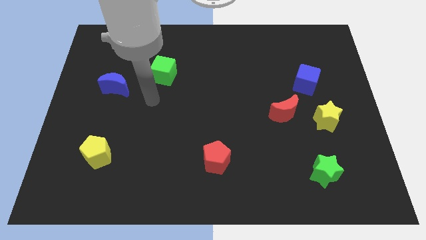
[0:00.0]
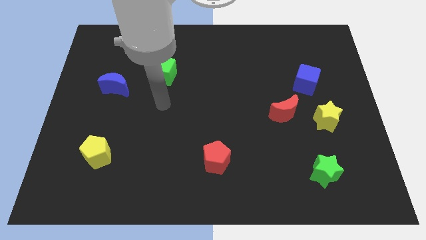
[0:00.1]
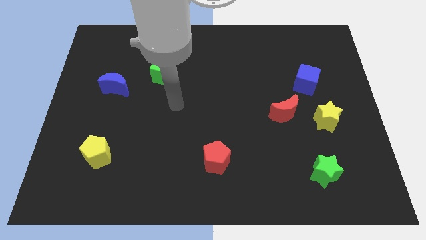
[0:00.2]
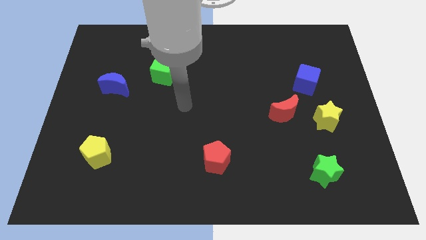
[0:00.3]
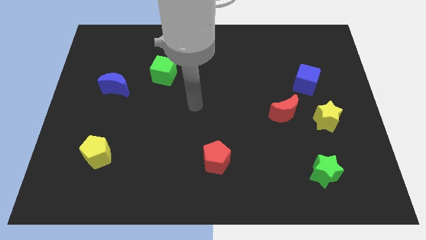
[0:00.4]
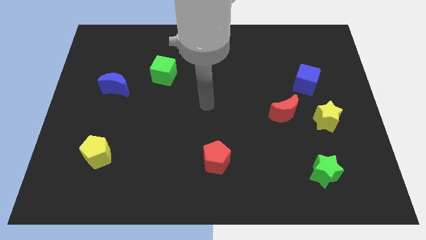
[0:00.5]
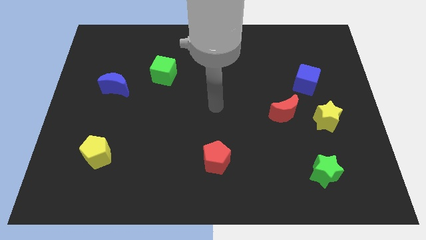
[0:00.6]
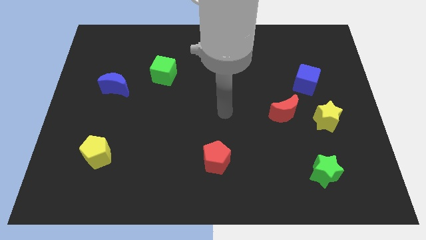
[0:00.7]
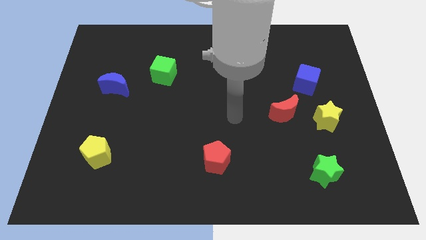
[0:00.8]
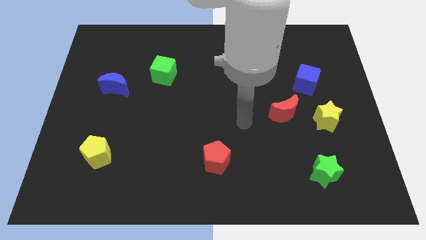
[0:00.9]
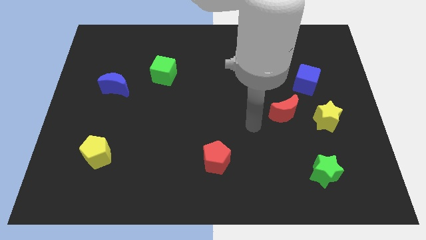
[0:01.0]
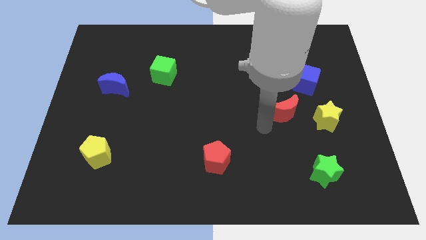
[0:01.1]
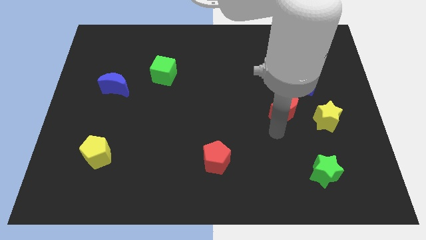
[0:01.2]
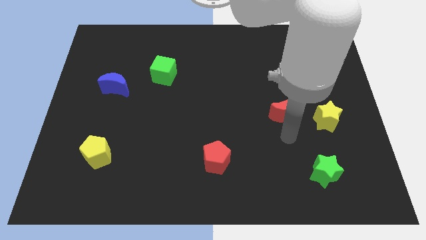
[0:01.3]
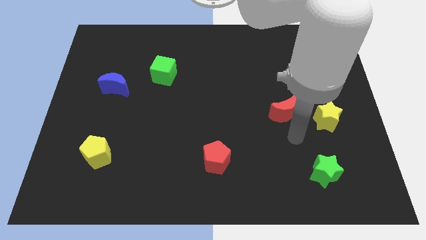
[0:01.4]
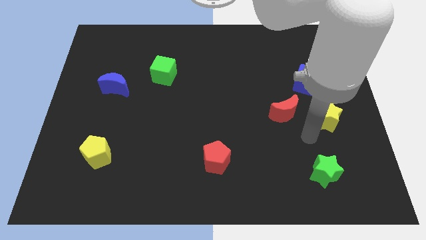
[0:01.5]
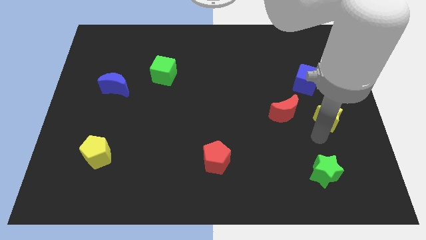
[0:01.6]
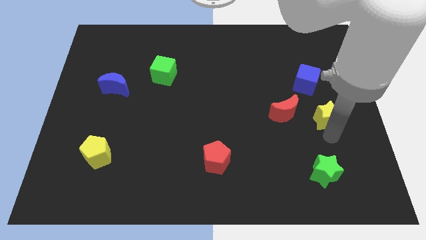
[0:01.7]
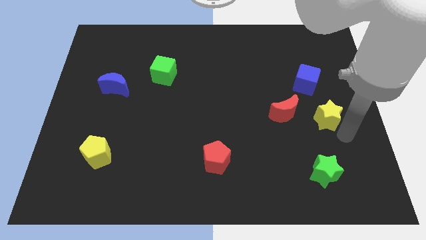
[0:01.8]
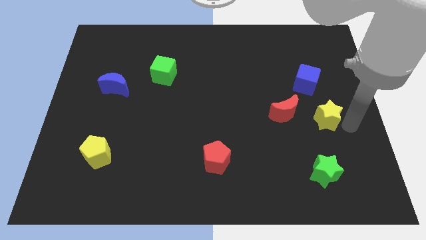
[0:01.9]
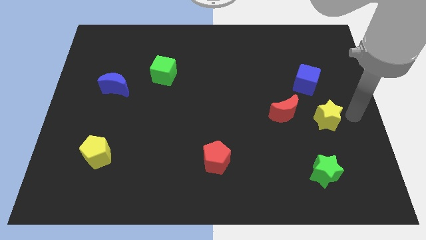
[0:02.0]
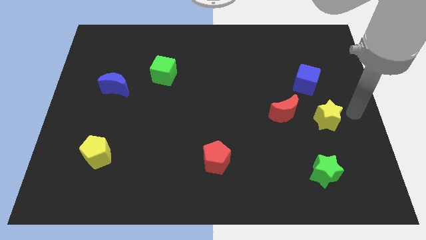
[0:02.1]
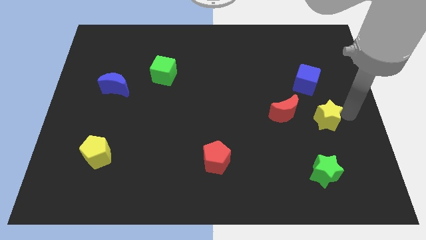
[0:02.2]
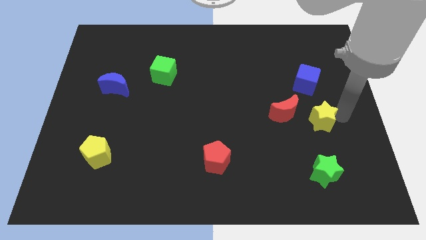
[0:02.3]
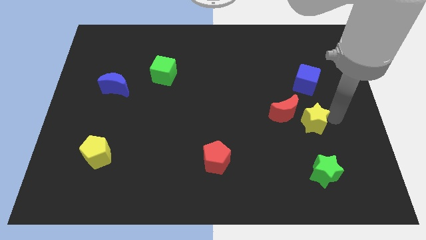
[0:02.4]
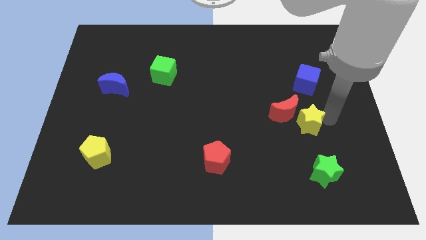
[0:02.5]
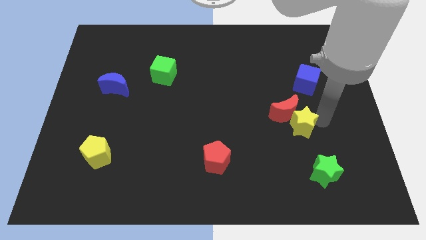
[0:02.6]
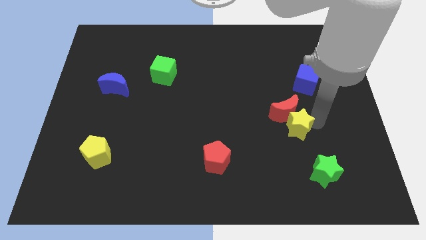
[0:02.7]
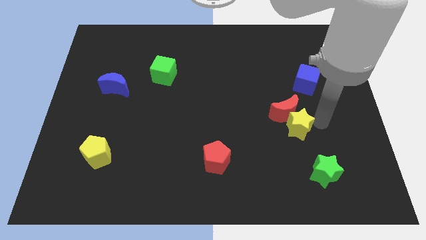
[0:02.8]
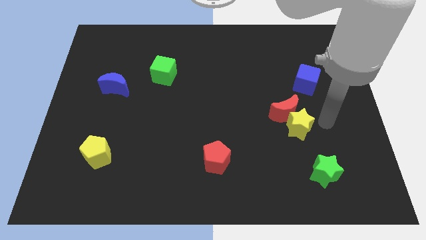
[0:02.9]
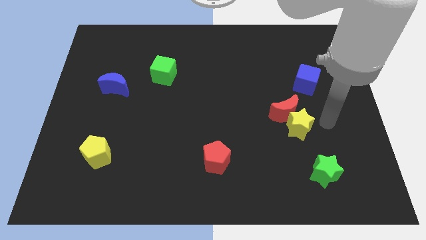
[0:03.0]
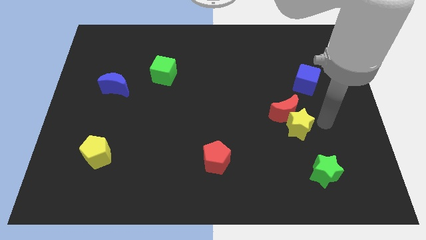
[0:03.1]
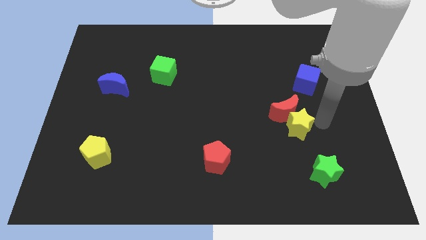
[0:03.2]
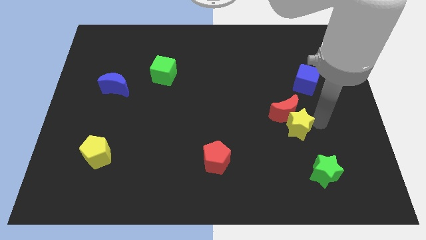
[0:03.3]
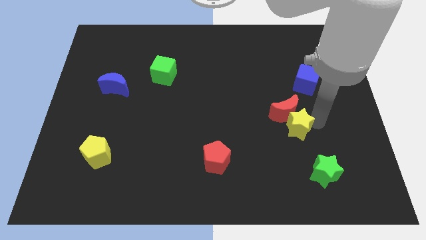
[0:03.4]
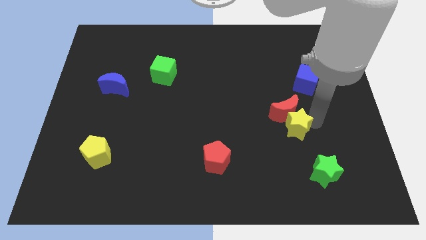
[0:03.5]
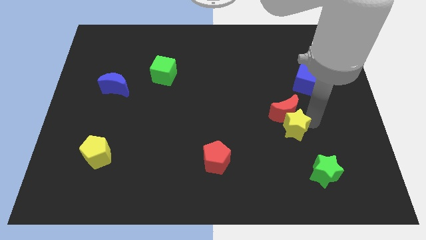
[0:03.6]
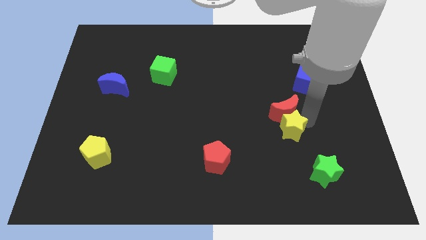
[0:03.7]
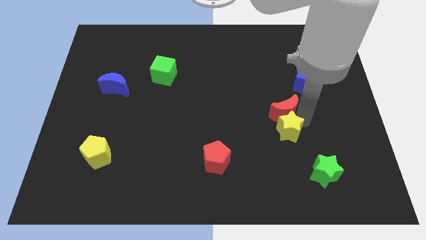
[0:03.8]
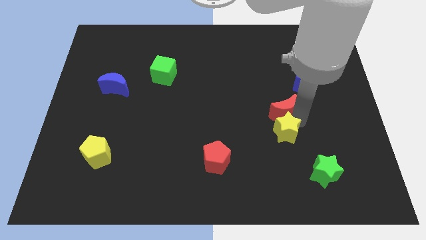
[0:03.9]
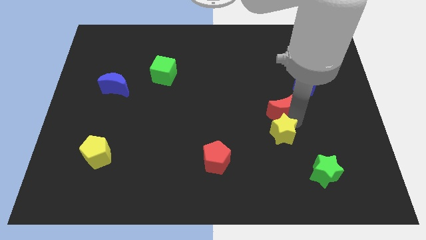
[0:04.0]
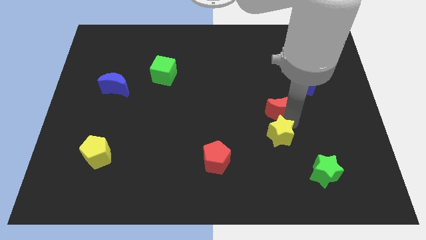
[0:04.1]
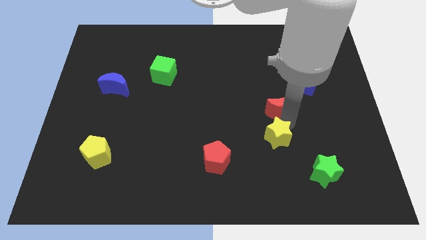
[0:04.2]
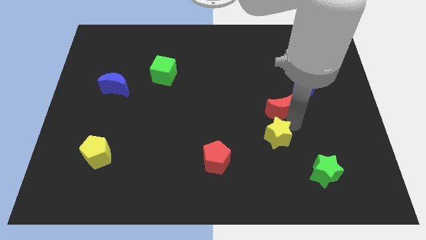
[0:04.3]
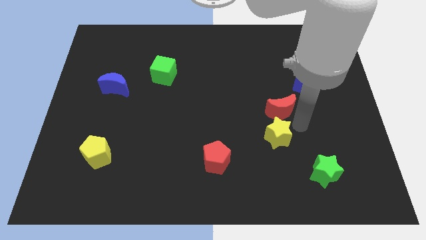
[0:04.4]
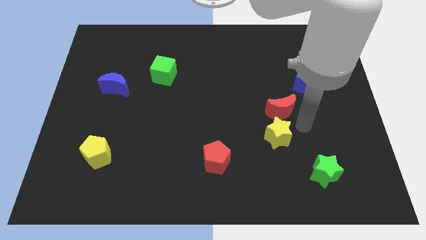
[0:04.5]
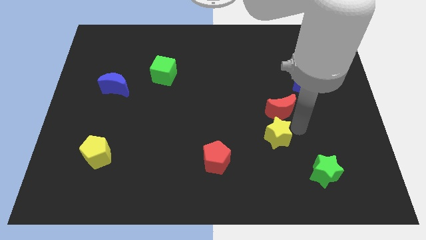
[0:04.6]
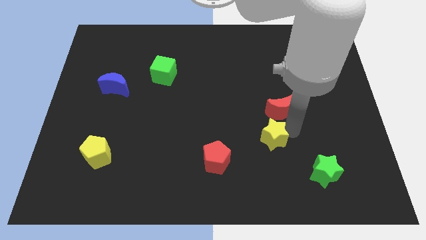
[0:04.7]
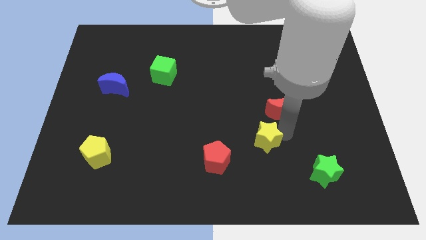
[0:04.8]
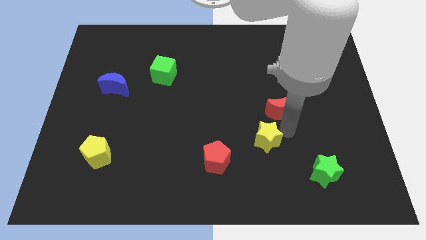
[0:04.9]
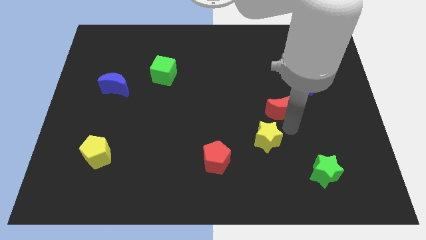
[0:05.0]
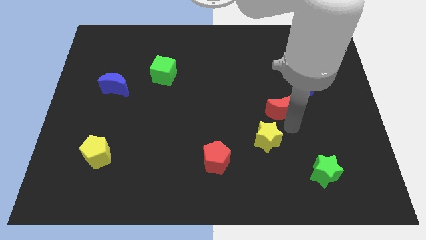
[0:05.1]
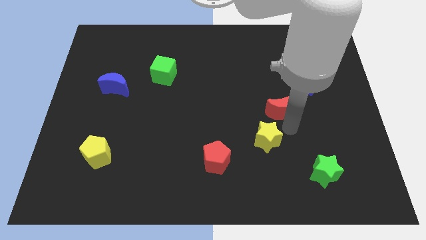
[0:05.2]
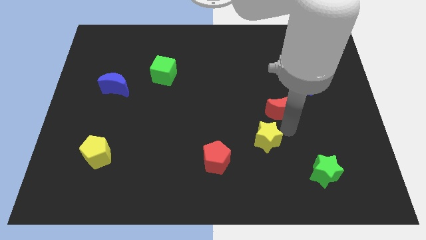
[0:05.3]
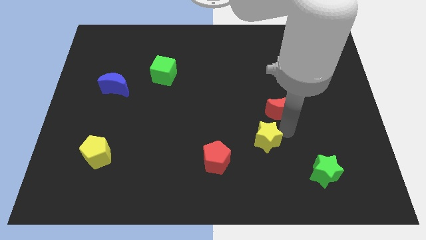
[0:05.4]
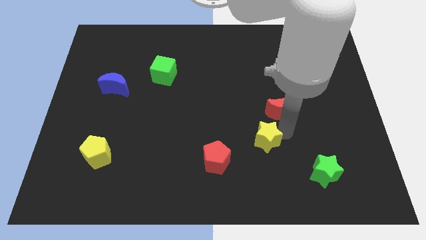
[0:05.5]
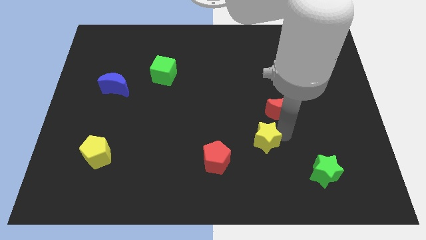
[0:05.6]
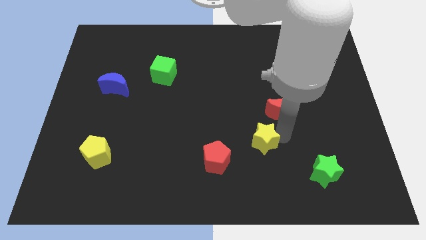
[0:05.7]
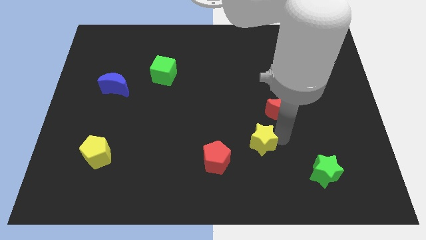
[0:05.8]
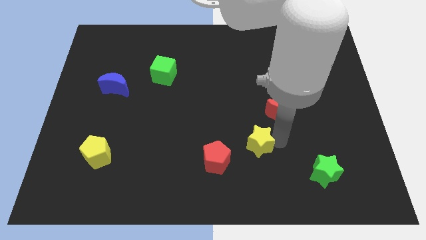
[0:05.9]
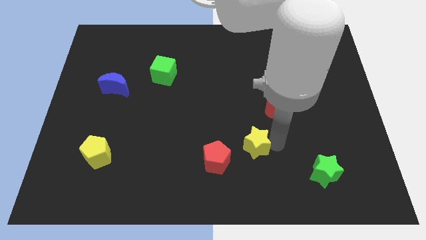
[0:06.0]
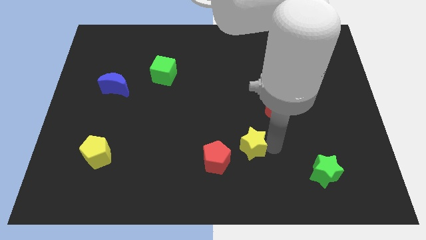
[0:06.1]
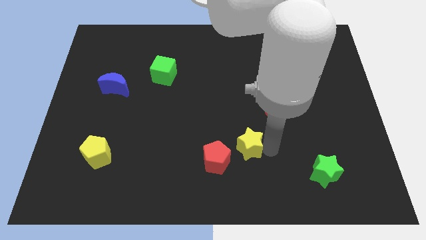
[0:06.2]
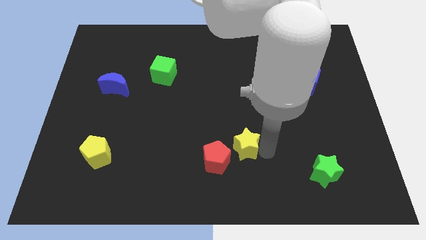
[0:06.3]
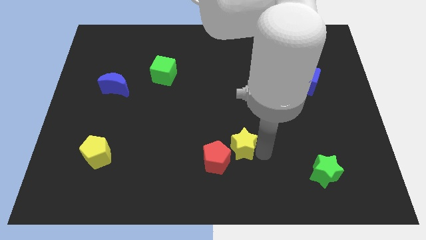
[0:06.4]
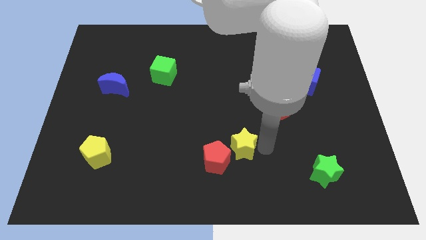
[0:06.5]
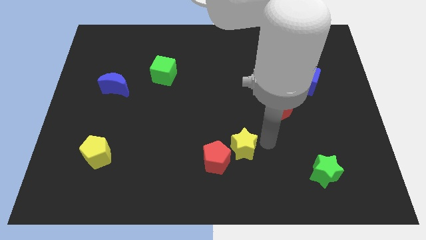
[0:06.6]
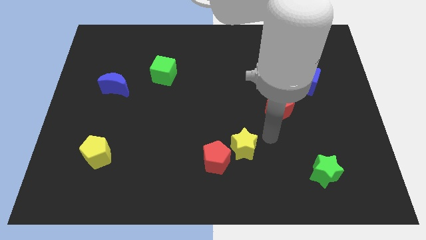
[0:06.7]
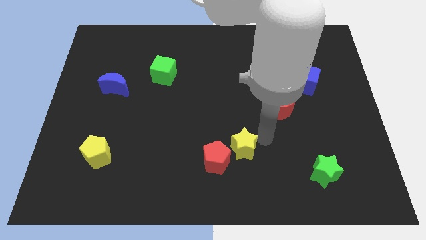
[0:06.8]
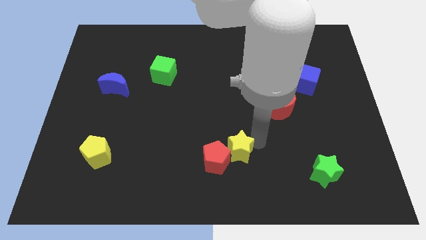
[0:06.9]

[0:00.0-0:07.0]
move the yellow star next to the red pentagon

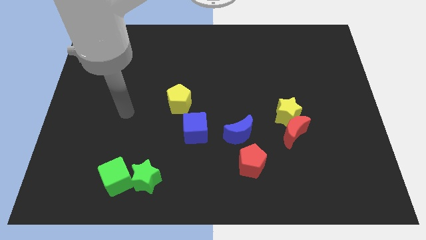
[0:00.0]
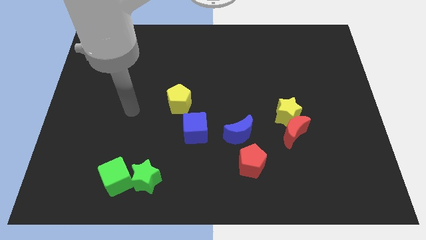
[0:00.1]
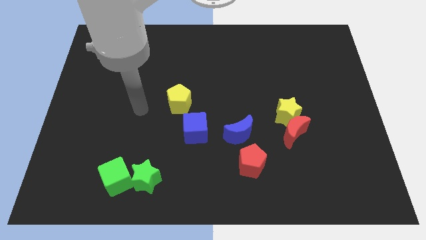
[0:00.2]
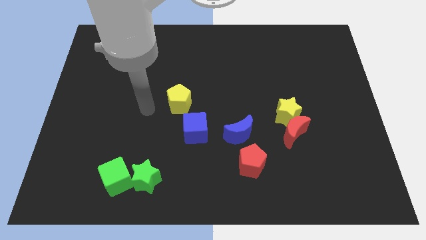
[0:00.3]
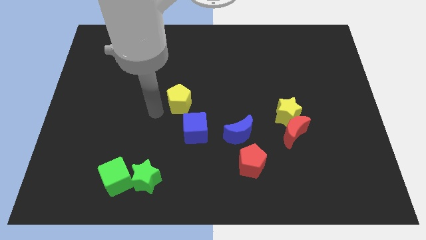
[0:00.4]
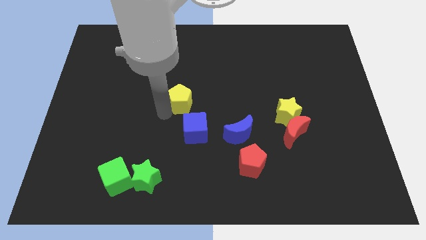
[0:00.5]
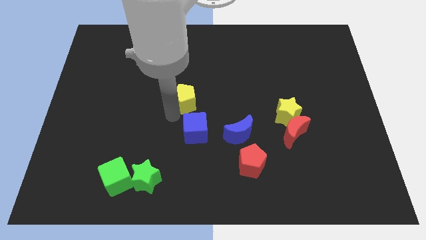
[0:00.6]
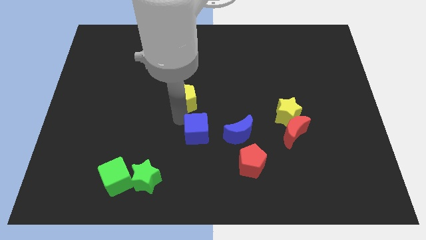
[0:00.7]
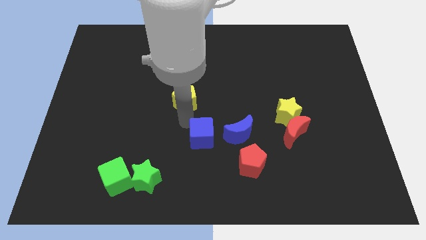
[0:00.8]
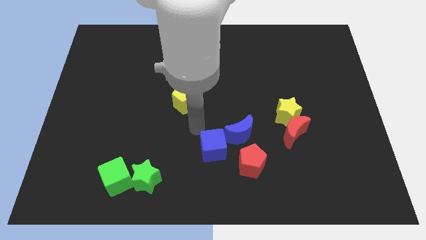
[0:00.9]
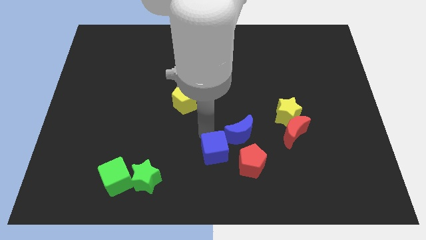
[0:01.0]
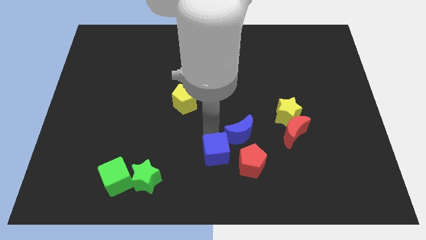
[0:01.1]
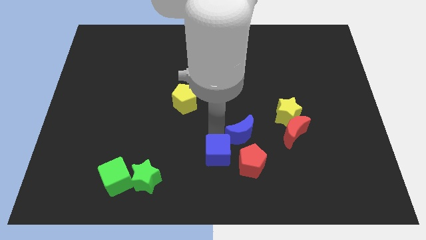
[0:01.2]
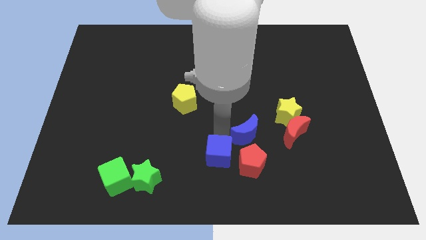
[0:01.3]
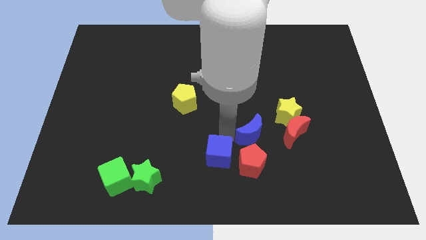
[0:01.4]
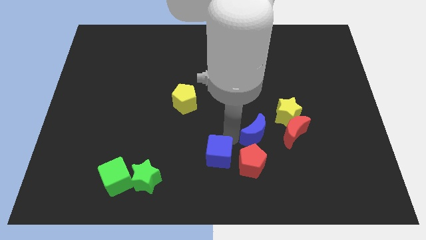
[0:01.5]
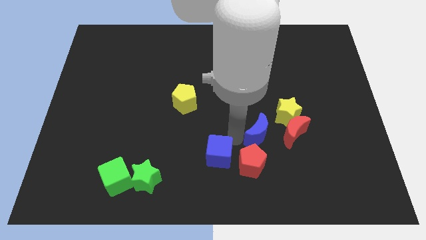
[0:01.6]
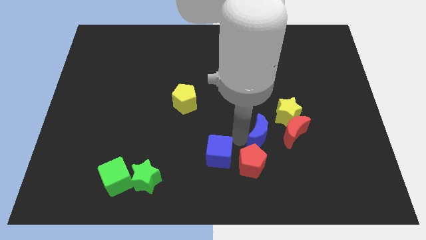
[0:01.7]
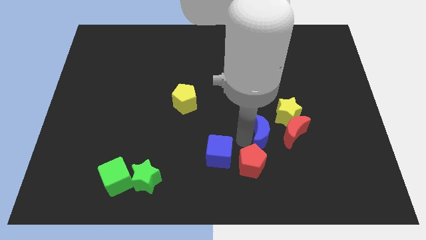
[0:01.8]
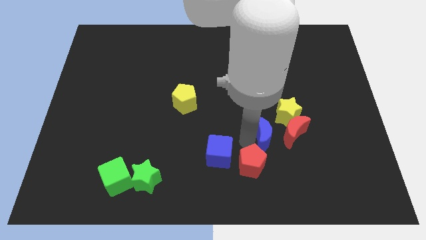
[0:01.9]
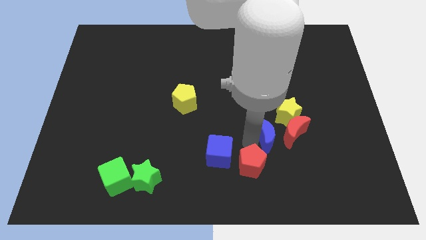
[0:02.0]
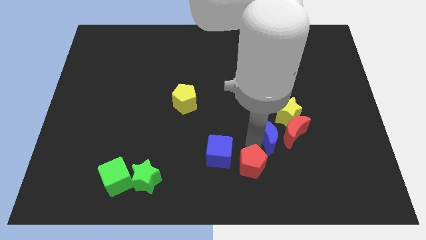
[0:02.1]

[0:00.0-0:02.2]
put the blue moon to the red moon
